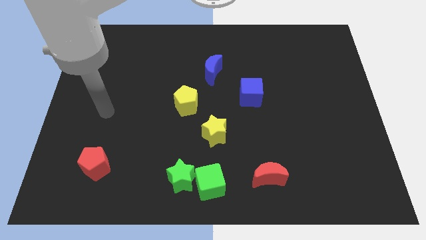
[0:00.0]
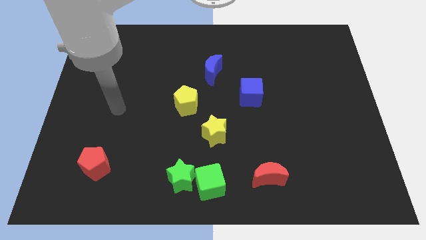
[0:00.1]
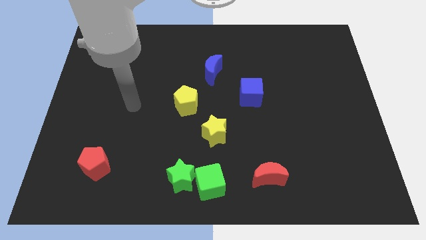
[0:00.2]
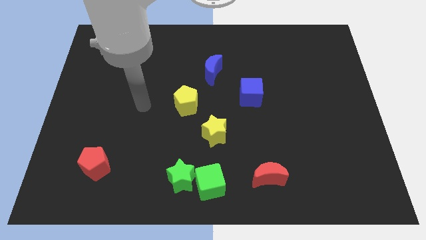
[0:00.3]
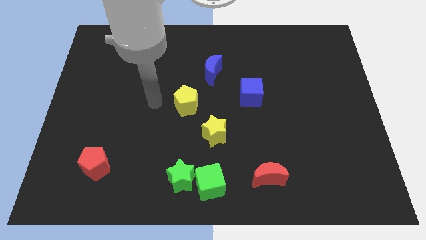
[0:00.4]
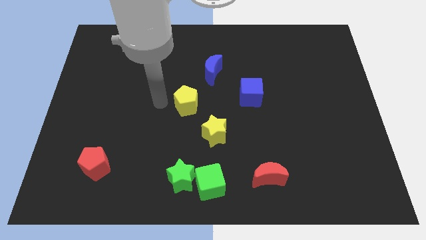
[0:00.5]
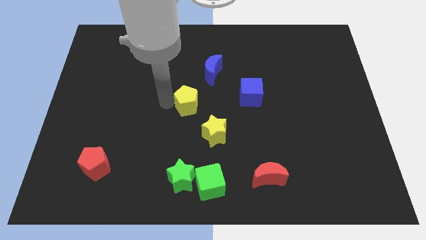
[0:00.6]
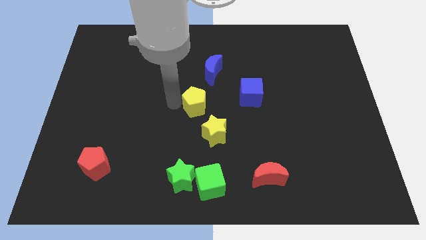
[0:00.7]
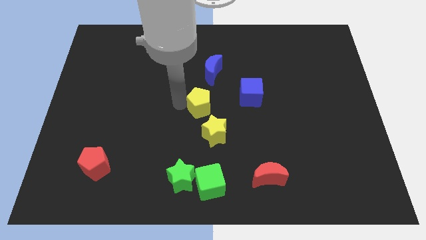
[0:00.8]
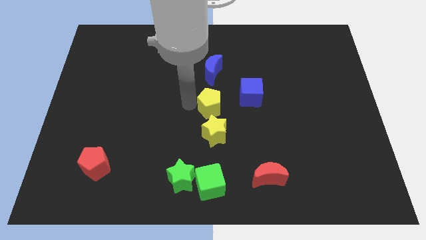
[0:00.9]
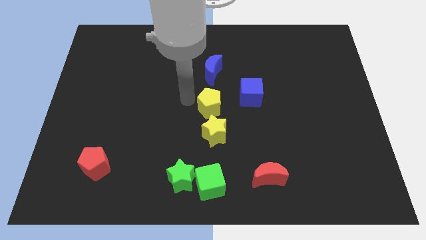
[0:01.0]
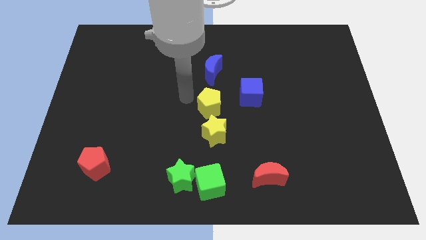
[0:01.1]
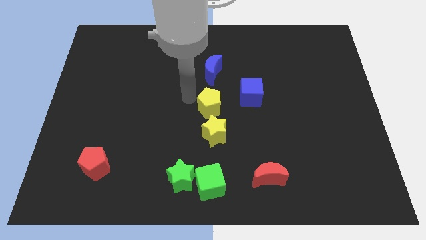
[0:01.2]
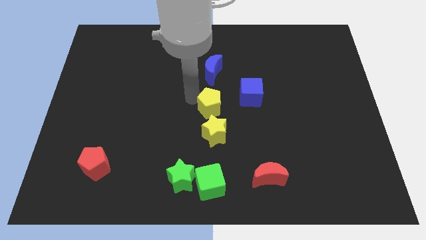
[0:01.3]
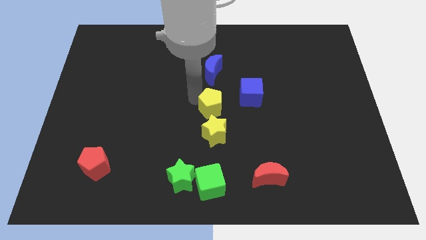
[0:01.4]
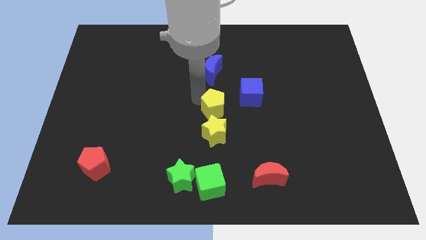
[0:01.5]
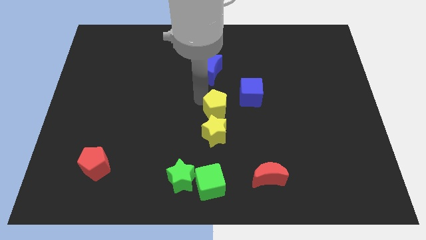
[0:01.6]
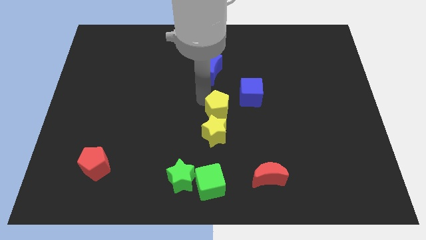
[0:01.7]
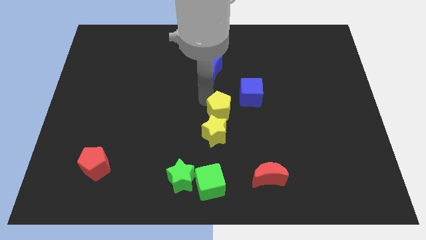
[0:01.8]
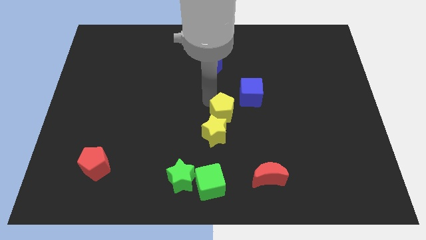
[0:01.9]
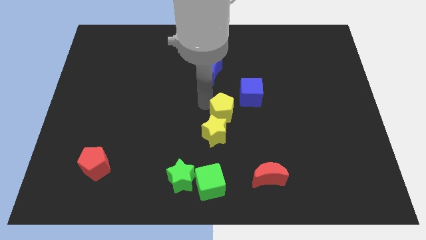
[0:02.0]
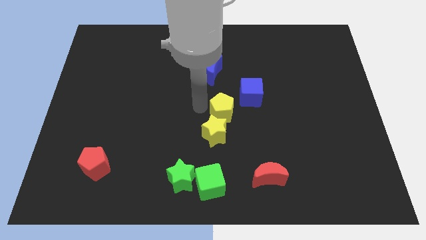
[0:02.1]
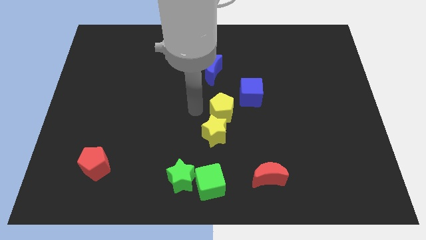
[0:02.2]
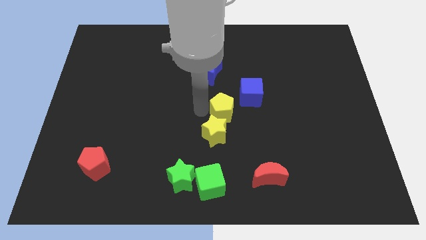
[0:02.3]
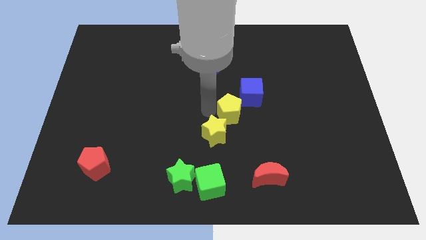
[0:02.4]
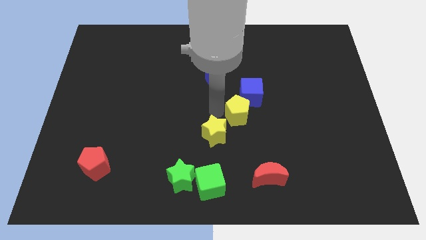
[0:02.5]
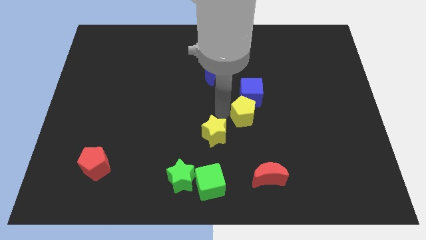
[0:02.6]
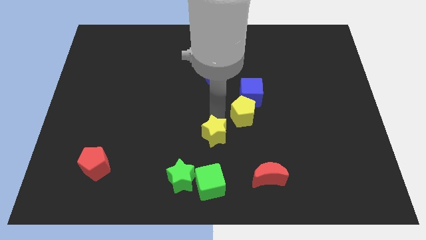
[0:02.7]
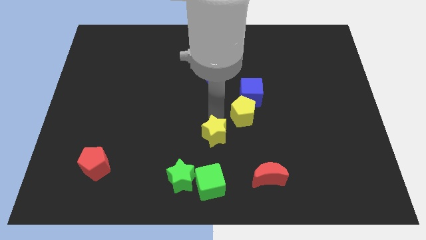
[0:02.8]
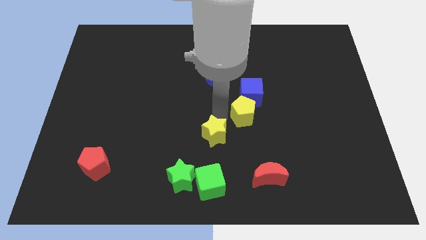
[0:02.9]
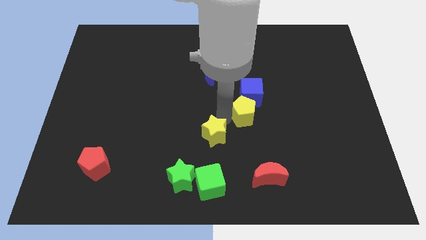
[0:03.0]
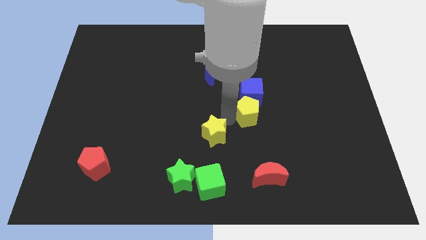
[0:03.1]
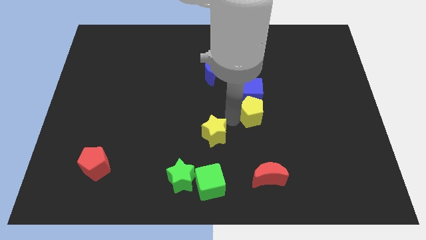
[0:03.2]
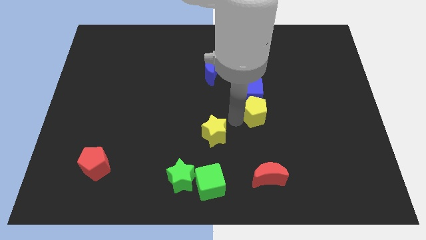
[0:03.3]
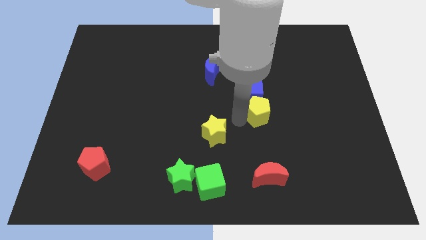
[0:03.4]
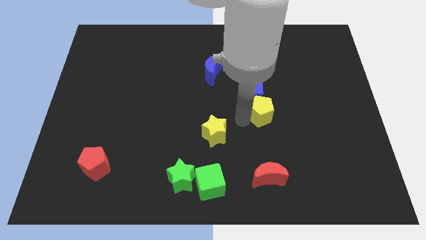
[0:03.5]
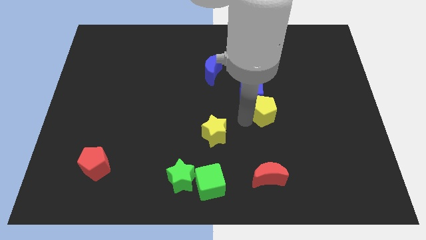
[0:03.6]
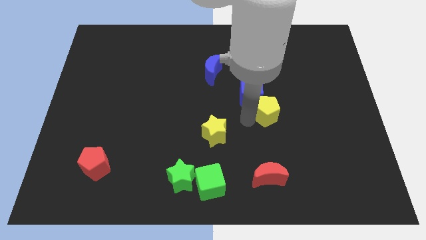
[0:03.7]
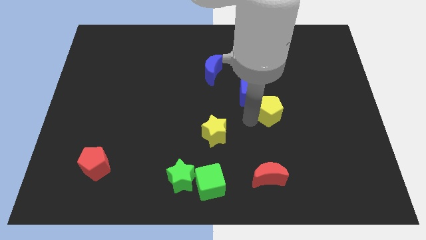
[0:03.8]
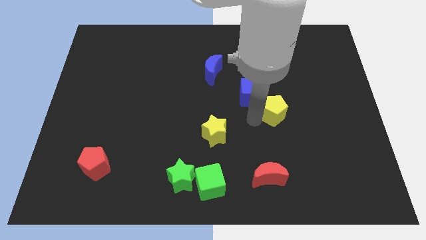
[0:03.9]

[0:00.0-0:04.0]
push the yellow pentagon to the right

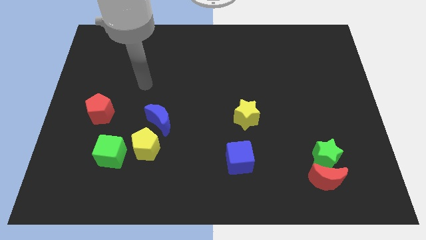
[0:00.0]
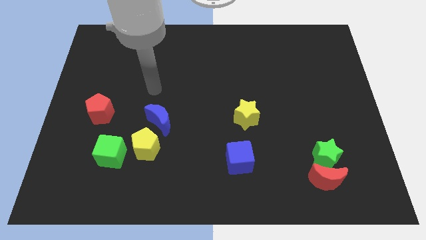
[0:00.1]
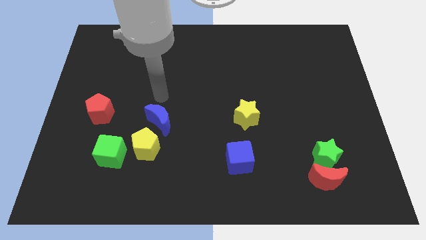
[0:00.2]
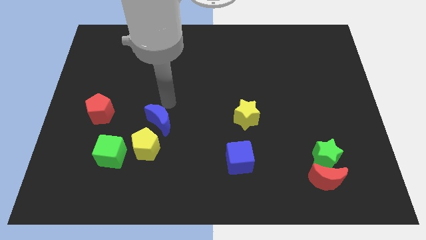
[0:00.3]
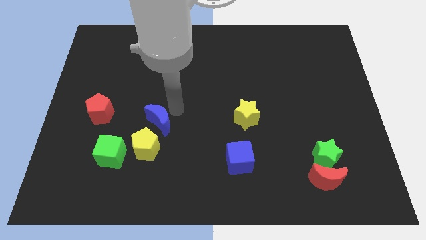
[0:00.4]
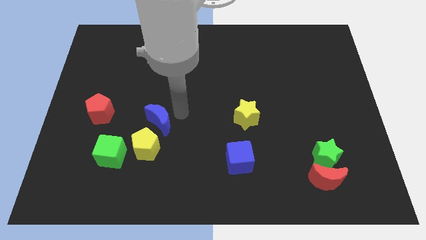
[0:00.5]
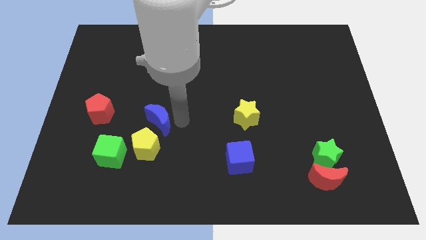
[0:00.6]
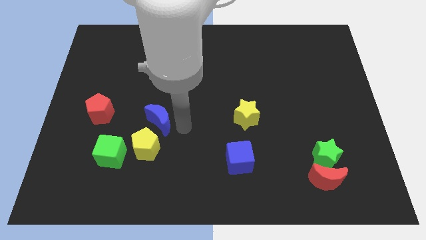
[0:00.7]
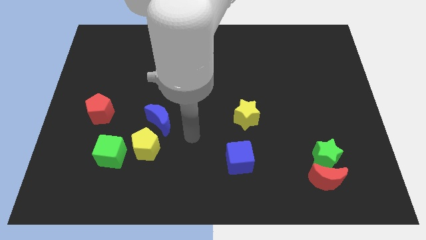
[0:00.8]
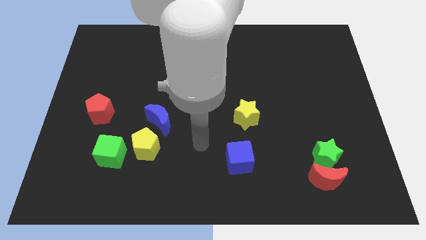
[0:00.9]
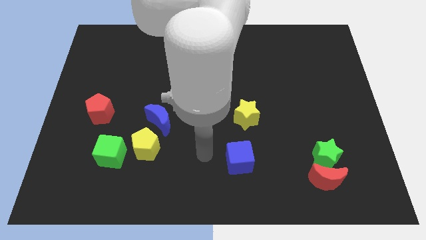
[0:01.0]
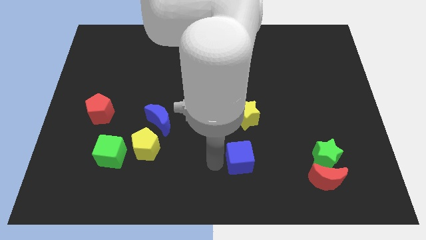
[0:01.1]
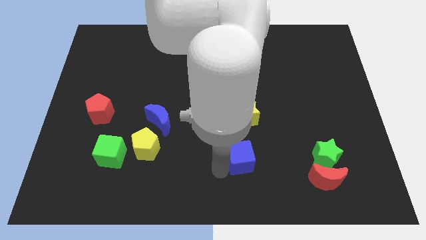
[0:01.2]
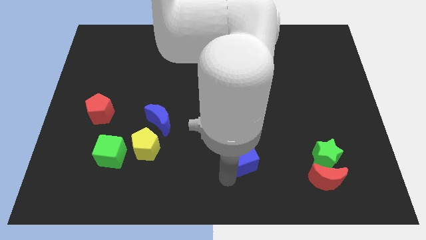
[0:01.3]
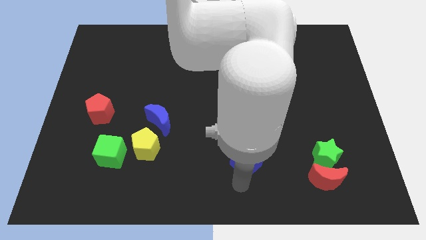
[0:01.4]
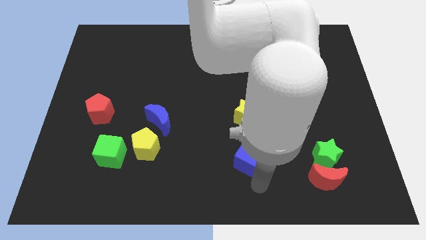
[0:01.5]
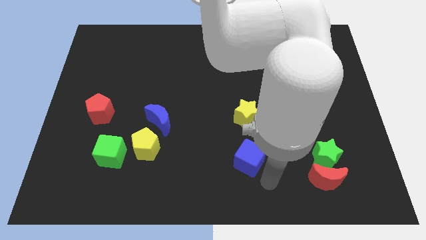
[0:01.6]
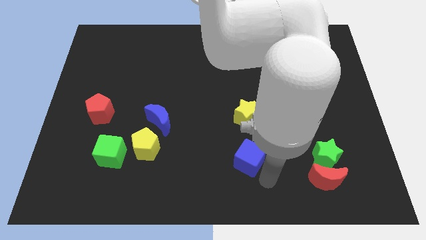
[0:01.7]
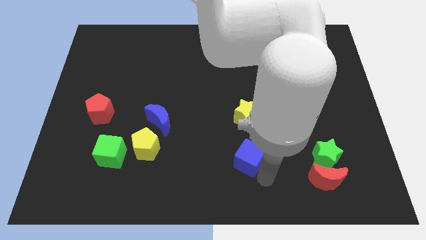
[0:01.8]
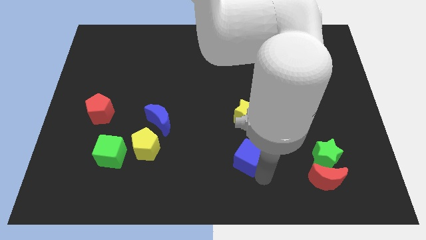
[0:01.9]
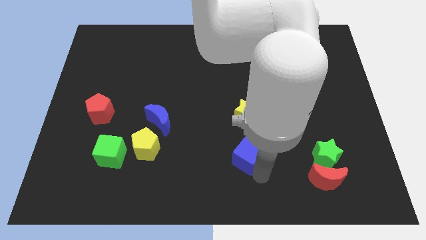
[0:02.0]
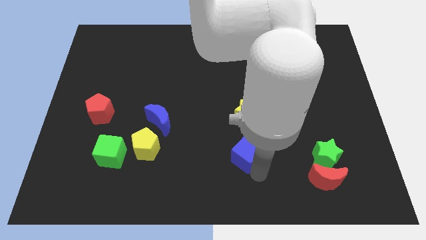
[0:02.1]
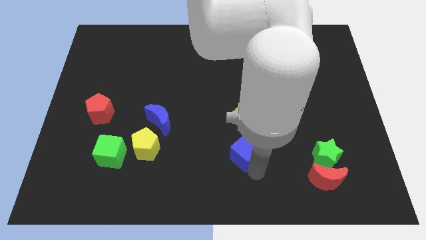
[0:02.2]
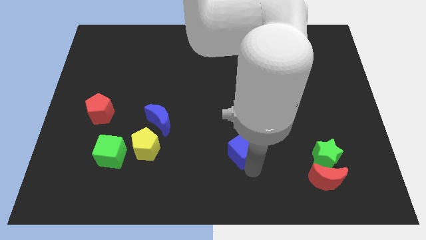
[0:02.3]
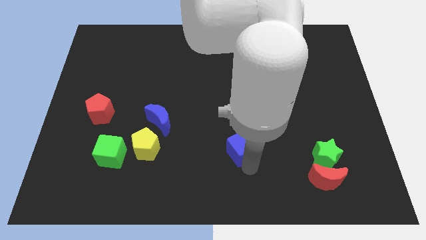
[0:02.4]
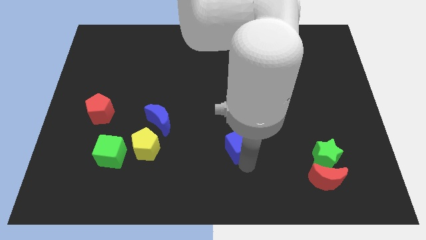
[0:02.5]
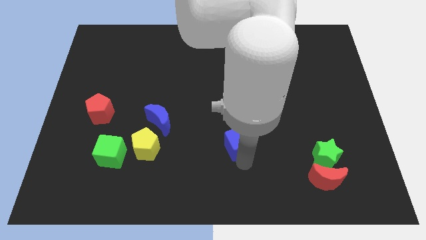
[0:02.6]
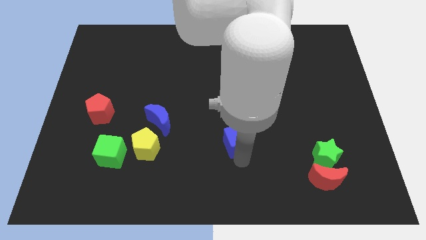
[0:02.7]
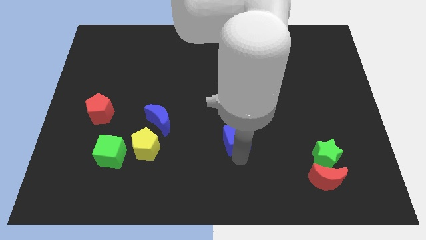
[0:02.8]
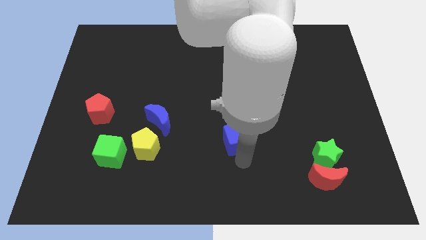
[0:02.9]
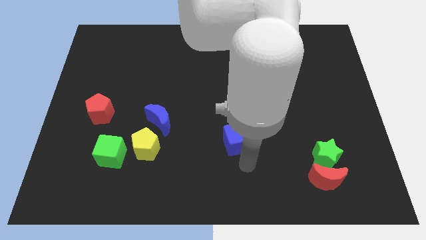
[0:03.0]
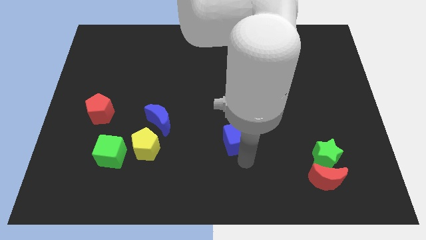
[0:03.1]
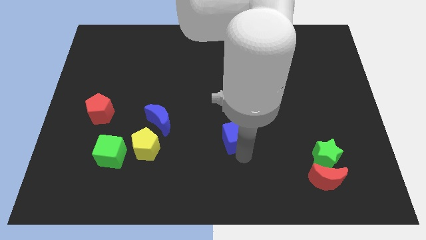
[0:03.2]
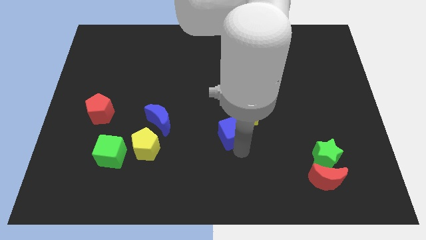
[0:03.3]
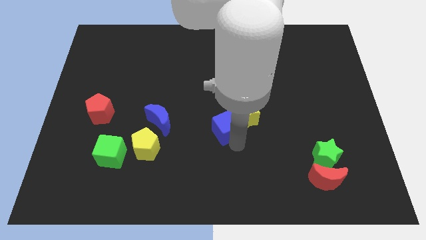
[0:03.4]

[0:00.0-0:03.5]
slightly move the blue cube upwards

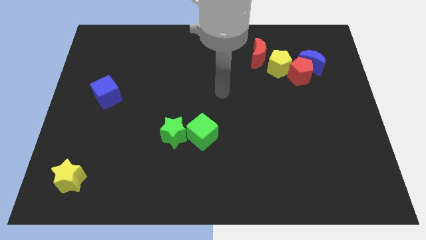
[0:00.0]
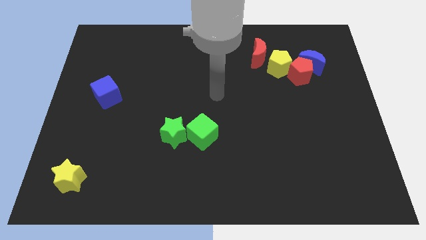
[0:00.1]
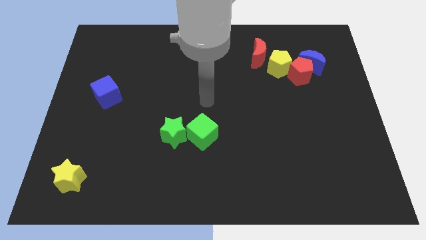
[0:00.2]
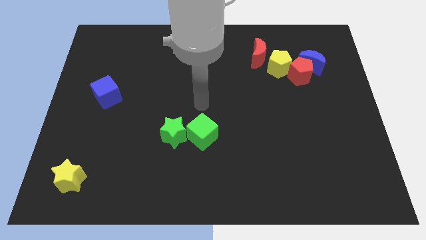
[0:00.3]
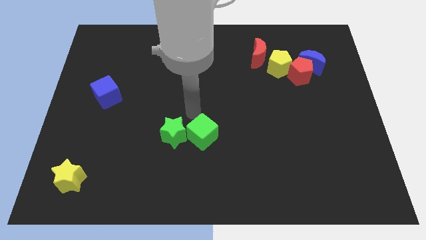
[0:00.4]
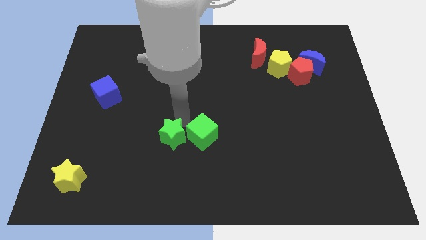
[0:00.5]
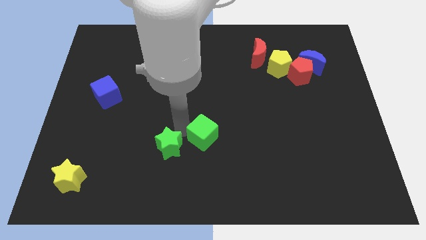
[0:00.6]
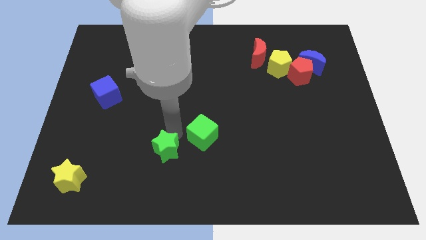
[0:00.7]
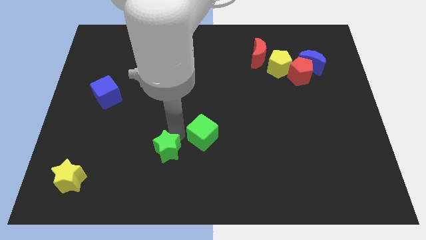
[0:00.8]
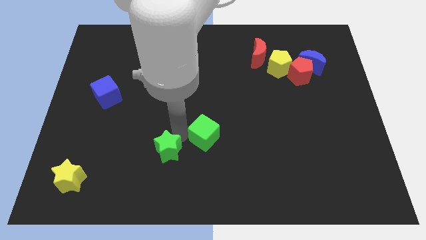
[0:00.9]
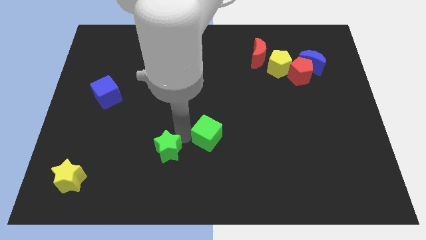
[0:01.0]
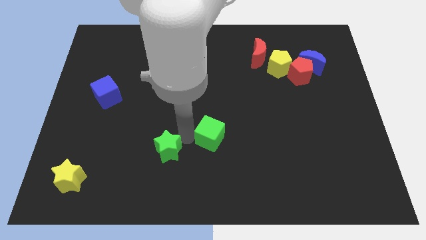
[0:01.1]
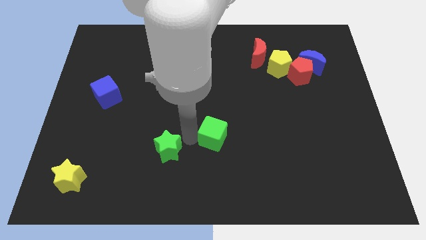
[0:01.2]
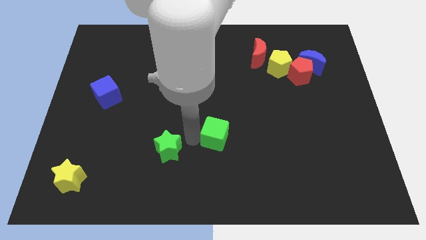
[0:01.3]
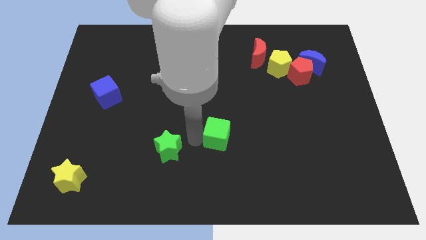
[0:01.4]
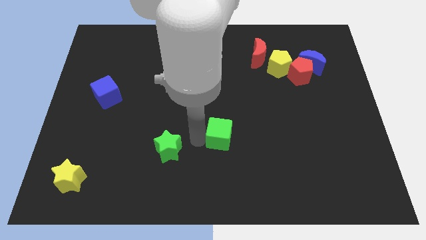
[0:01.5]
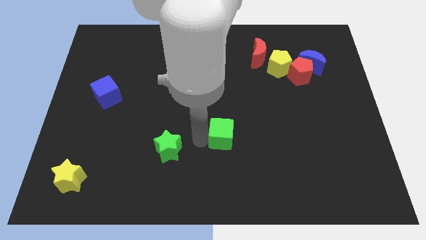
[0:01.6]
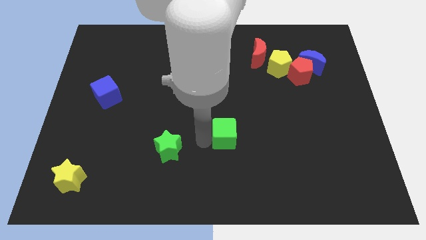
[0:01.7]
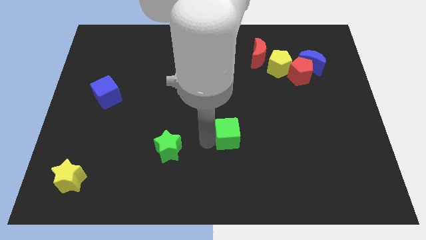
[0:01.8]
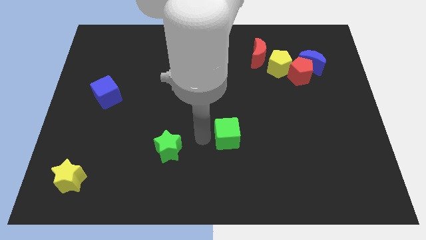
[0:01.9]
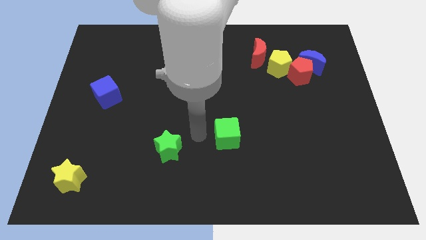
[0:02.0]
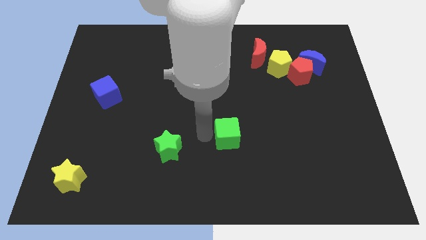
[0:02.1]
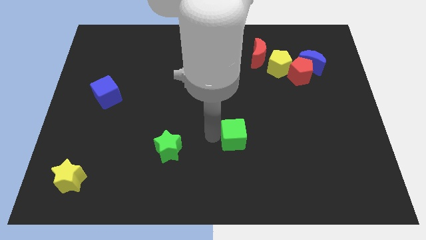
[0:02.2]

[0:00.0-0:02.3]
slightly move the green cube to the right
